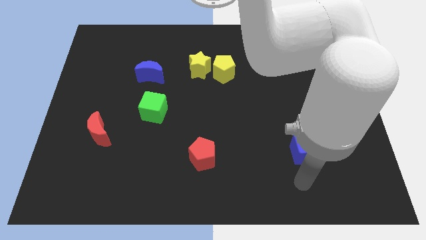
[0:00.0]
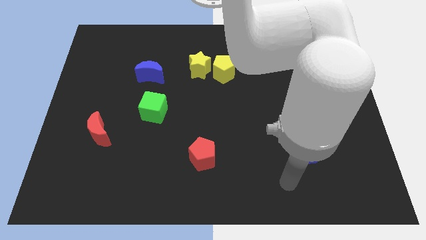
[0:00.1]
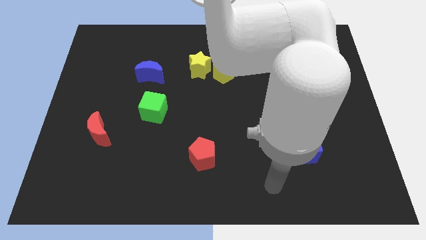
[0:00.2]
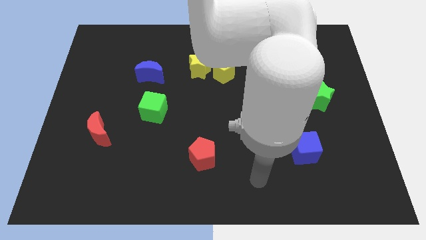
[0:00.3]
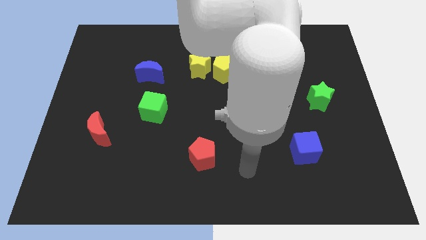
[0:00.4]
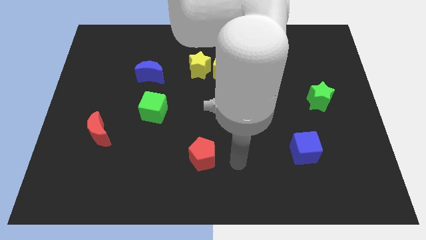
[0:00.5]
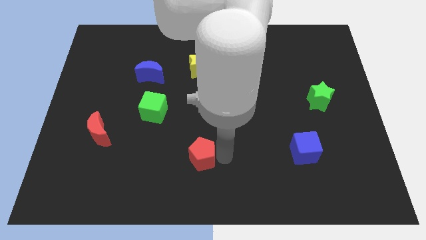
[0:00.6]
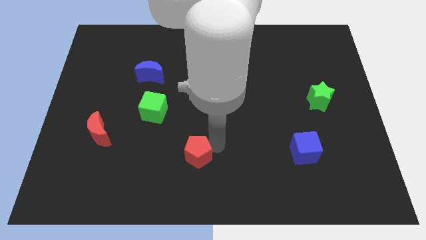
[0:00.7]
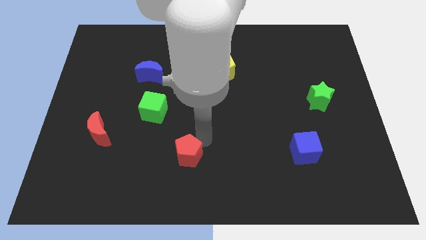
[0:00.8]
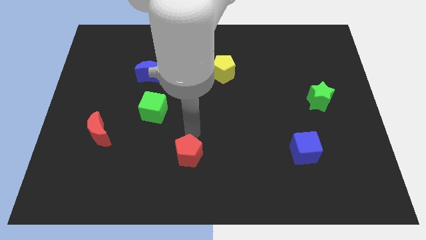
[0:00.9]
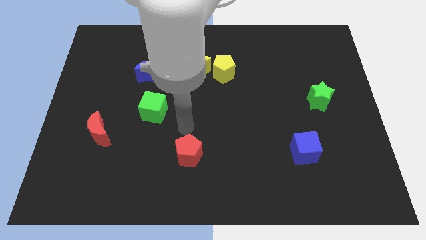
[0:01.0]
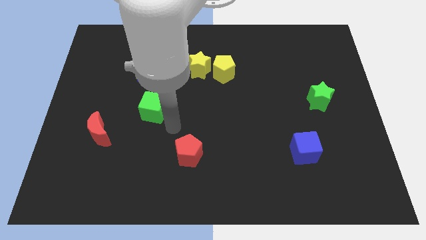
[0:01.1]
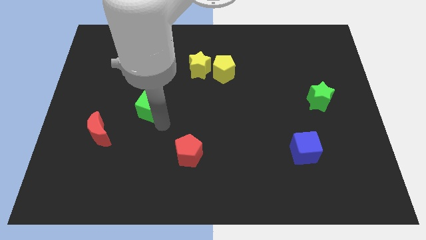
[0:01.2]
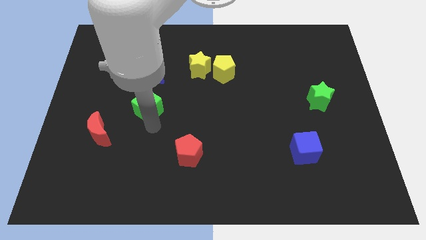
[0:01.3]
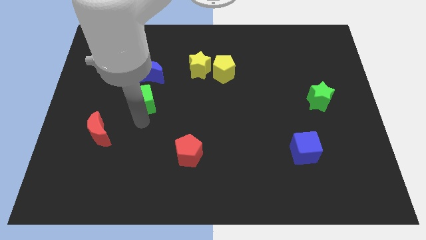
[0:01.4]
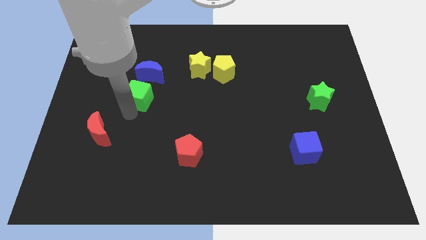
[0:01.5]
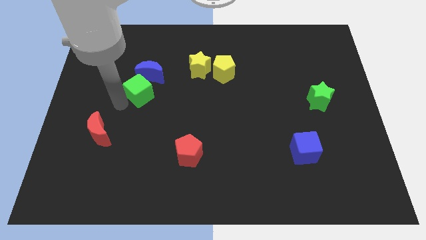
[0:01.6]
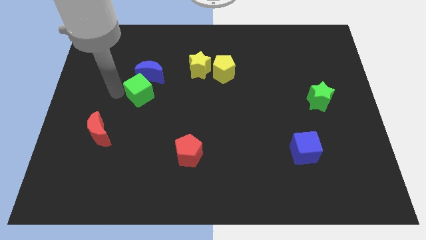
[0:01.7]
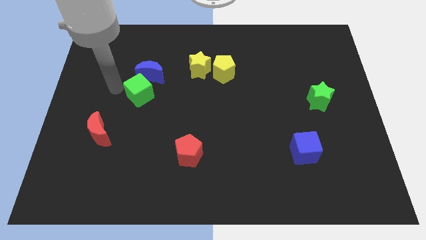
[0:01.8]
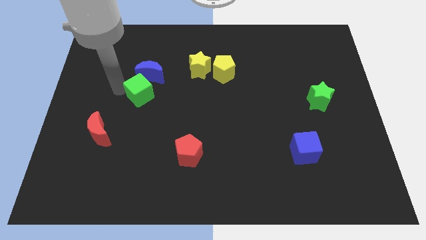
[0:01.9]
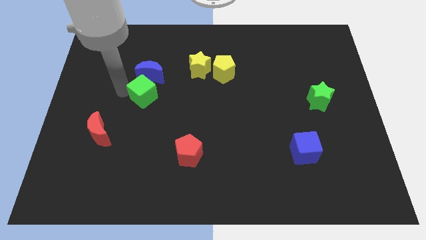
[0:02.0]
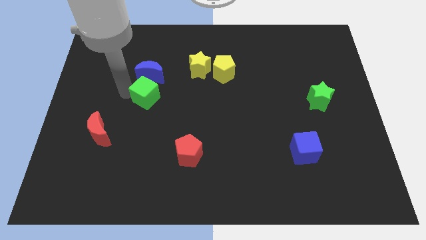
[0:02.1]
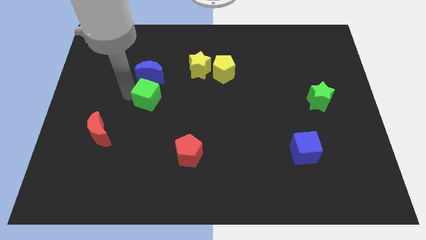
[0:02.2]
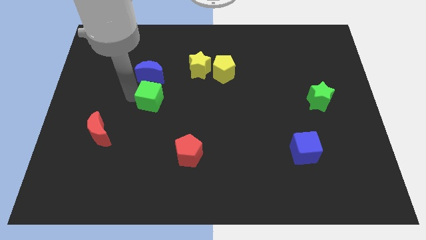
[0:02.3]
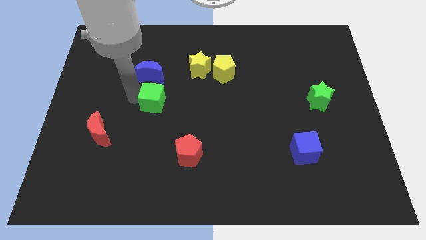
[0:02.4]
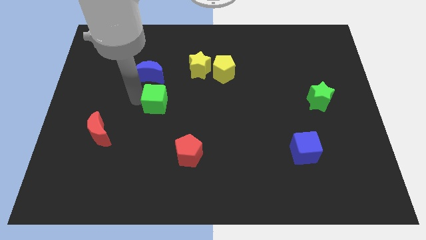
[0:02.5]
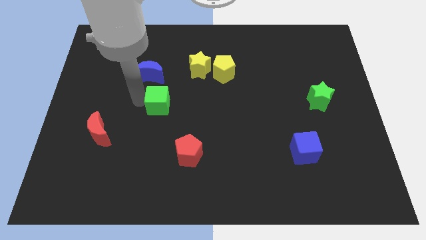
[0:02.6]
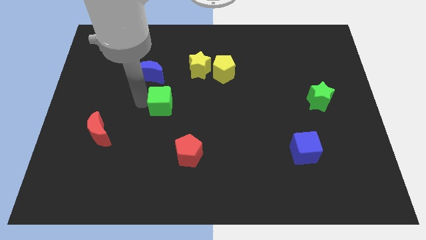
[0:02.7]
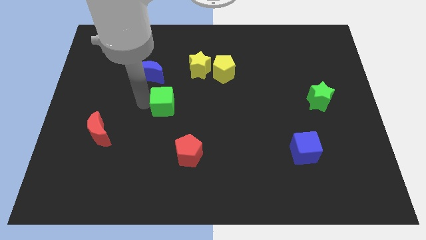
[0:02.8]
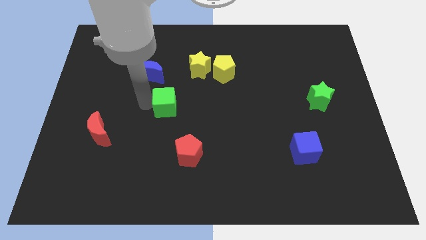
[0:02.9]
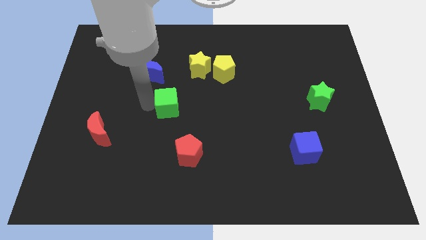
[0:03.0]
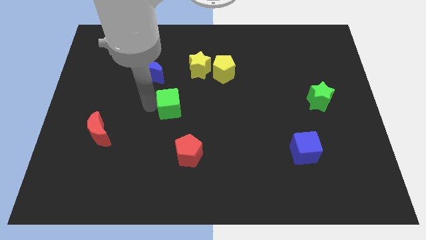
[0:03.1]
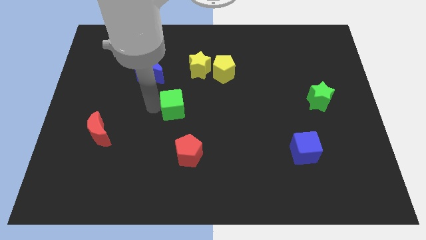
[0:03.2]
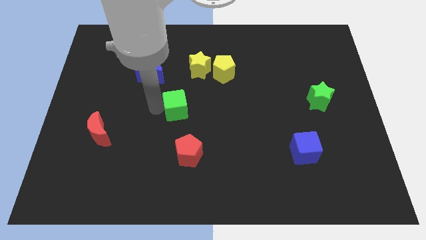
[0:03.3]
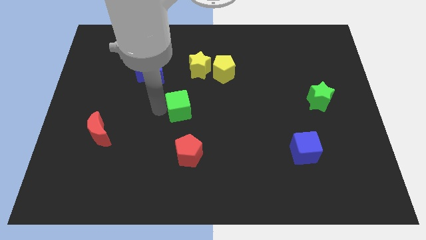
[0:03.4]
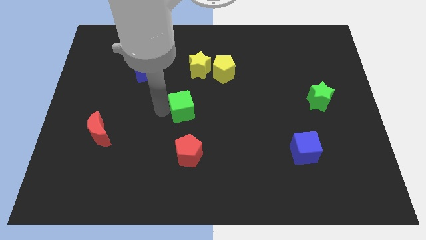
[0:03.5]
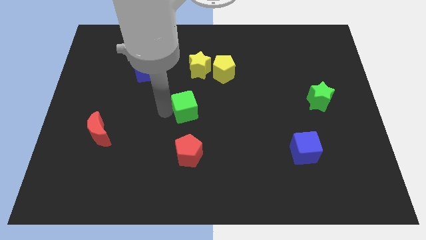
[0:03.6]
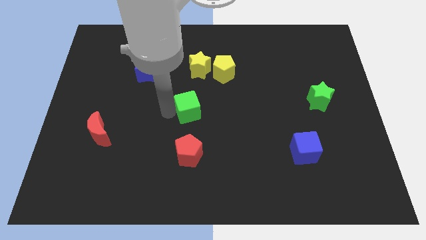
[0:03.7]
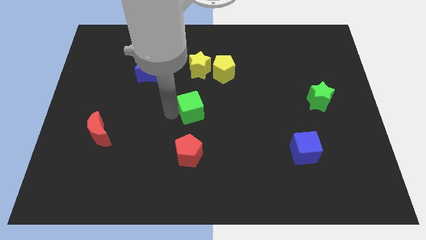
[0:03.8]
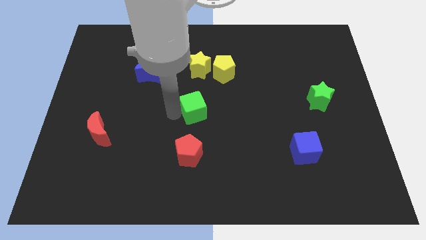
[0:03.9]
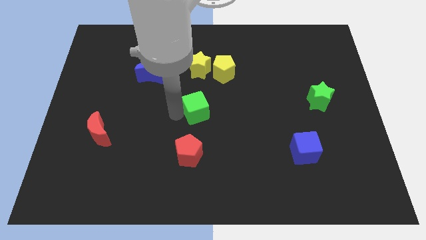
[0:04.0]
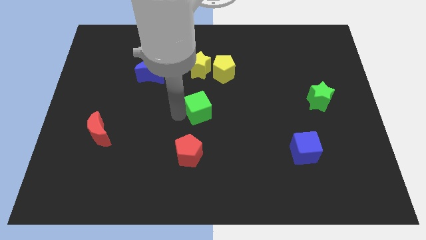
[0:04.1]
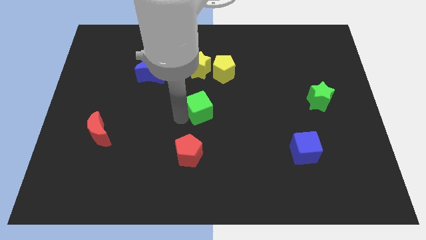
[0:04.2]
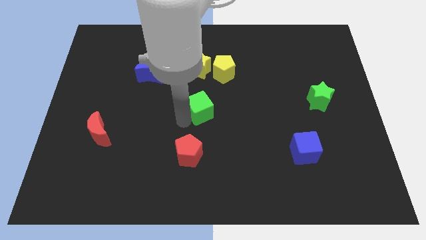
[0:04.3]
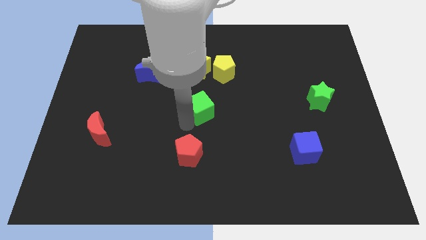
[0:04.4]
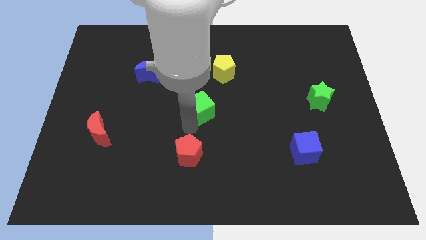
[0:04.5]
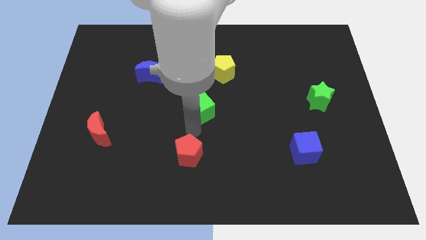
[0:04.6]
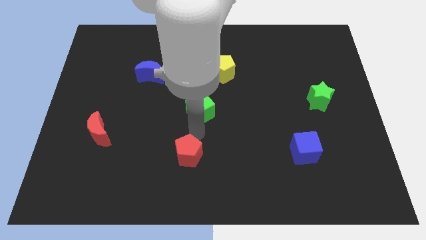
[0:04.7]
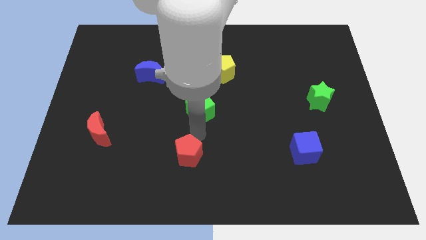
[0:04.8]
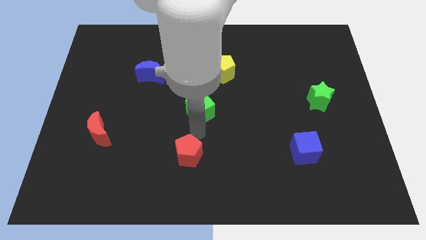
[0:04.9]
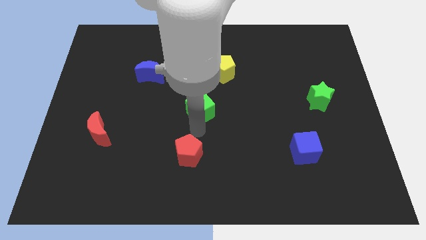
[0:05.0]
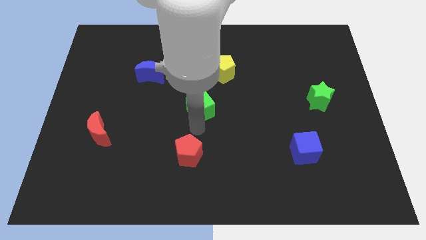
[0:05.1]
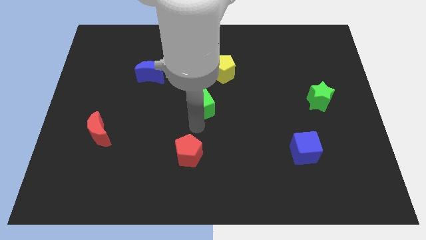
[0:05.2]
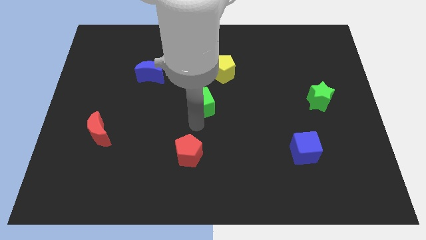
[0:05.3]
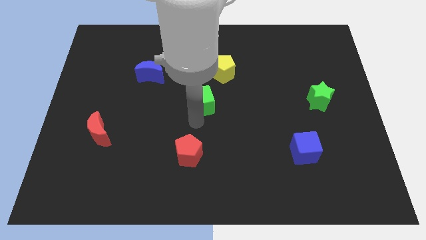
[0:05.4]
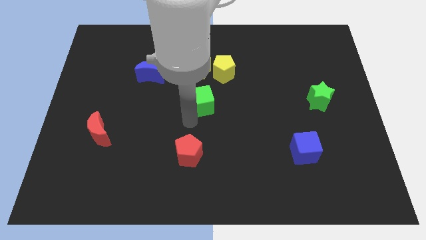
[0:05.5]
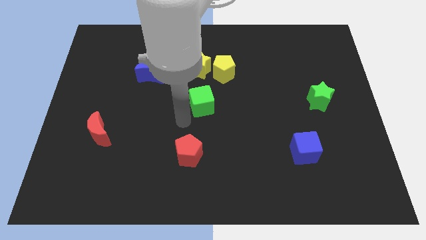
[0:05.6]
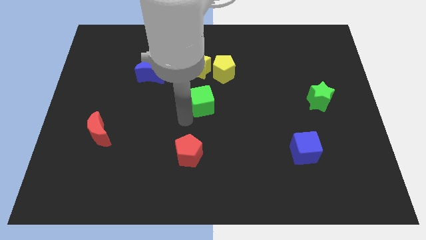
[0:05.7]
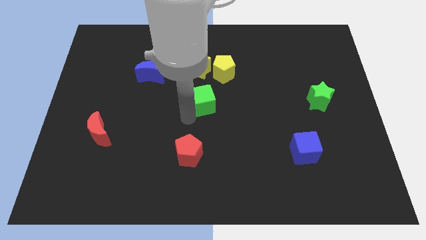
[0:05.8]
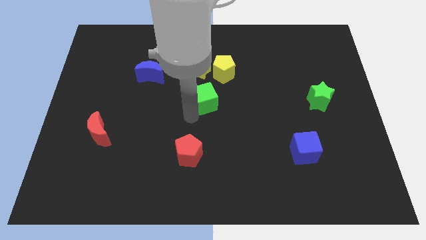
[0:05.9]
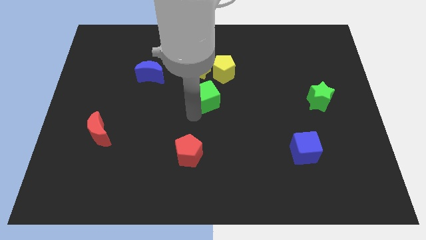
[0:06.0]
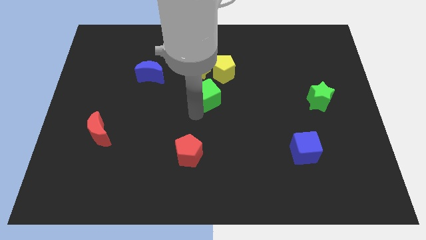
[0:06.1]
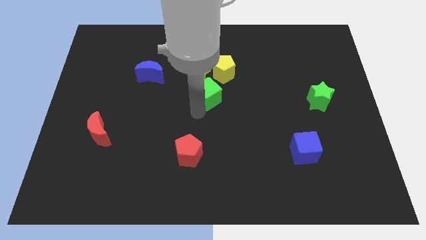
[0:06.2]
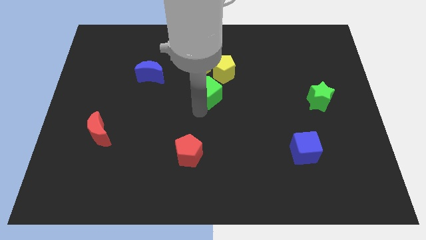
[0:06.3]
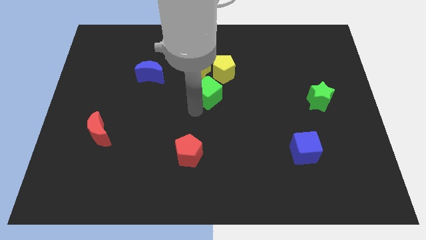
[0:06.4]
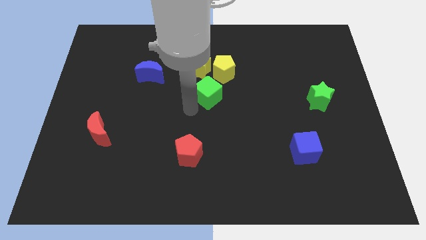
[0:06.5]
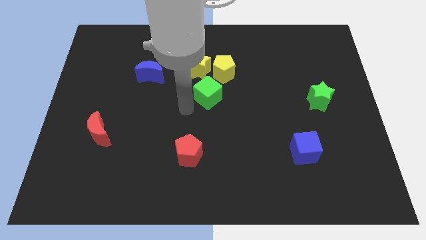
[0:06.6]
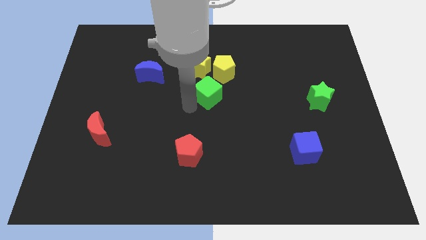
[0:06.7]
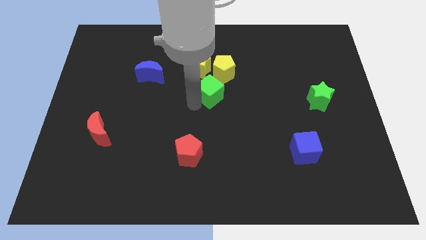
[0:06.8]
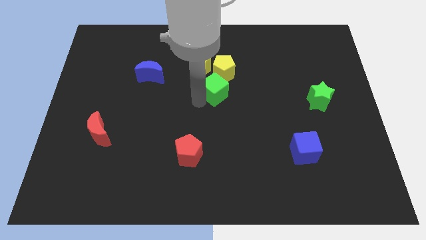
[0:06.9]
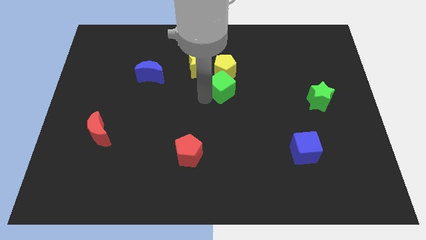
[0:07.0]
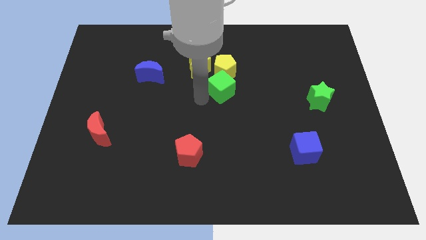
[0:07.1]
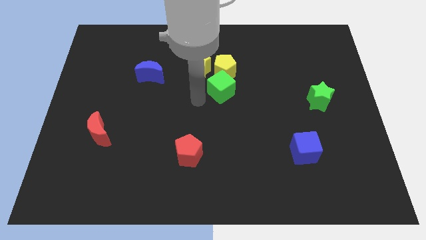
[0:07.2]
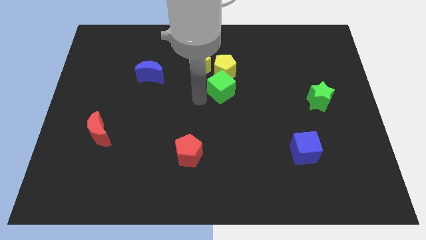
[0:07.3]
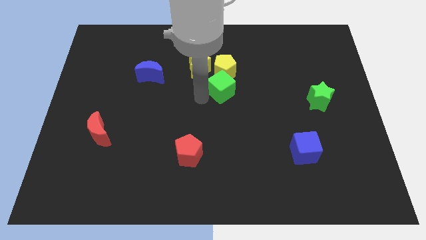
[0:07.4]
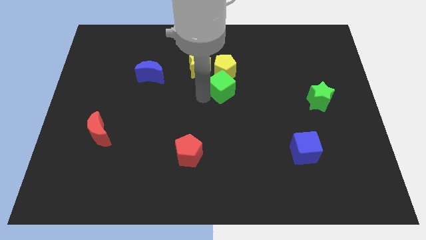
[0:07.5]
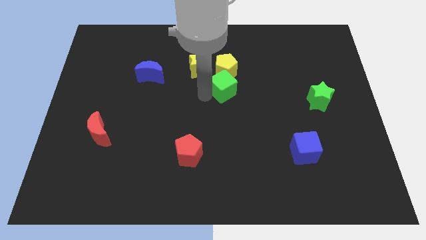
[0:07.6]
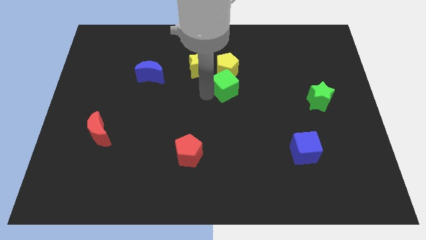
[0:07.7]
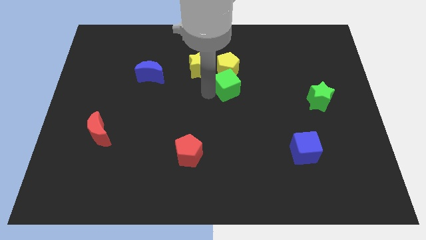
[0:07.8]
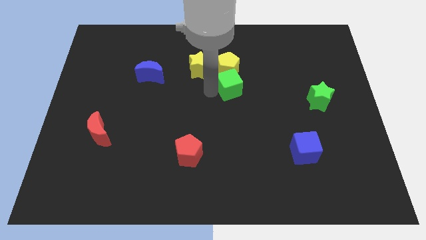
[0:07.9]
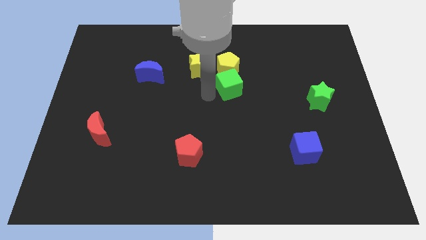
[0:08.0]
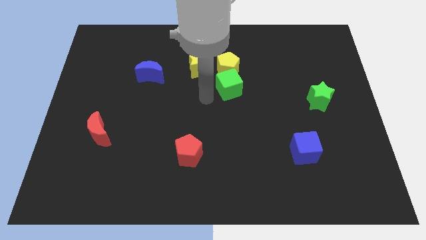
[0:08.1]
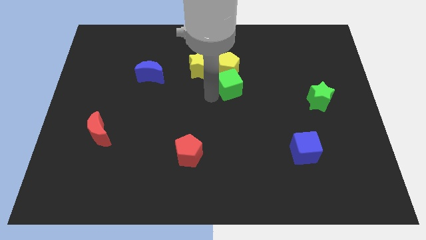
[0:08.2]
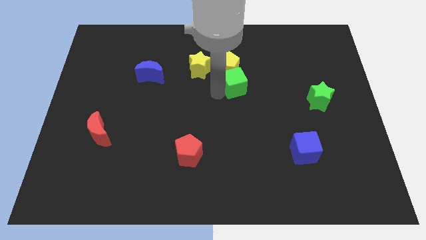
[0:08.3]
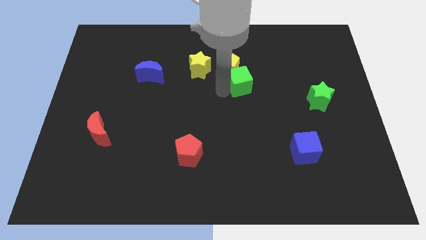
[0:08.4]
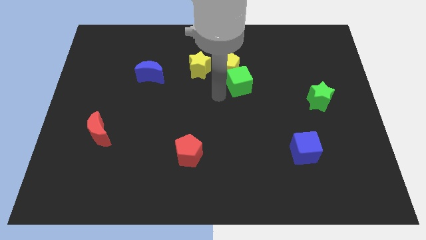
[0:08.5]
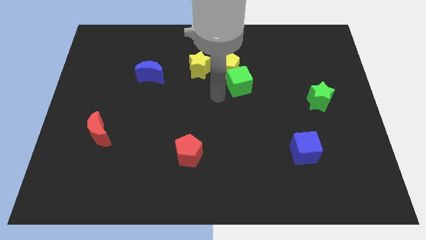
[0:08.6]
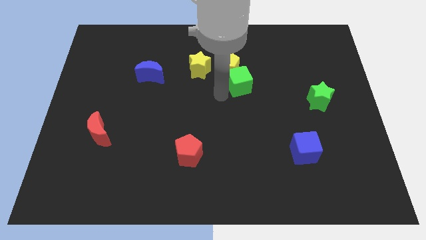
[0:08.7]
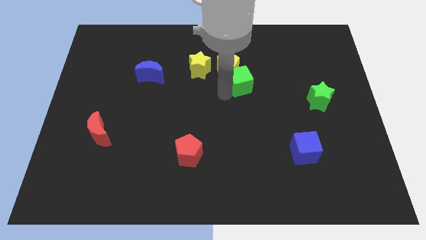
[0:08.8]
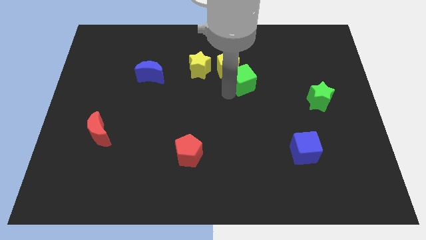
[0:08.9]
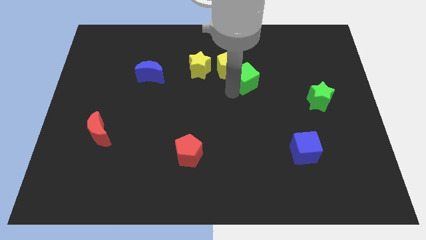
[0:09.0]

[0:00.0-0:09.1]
push the green cube to the right side of the yellow pentagon
